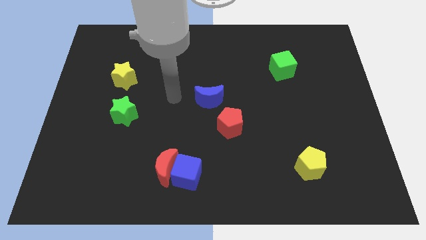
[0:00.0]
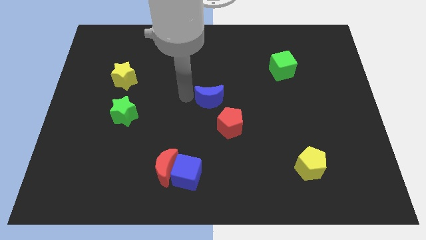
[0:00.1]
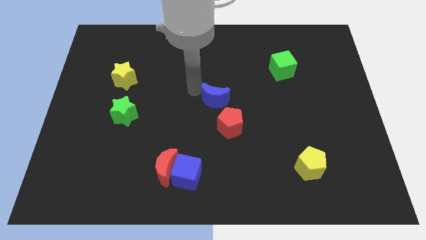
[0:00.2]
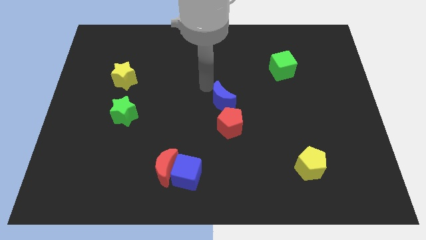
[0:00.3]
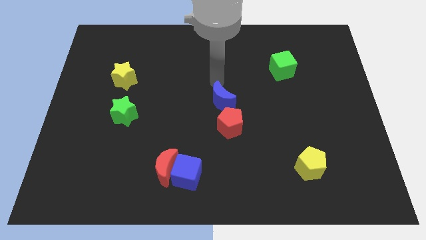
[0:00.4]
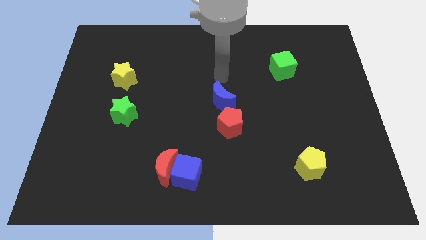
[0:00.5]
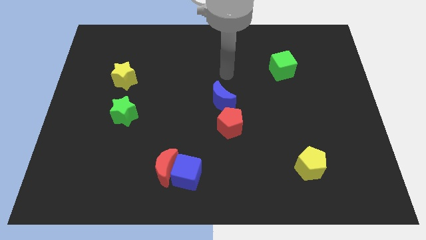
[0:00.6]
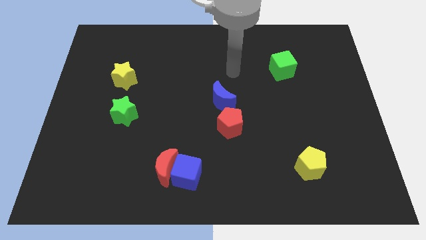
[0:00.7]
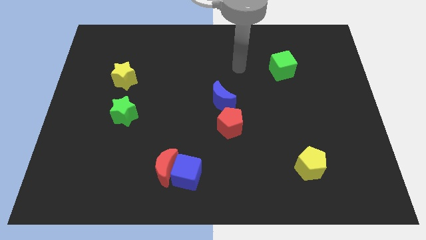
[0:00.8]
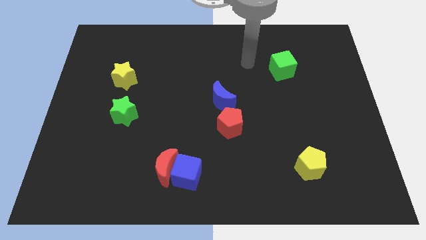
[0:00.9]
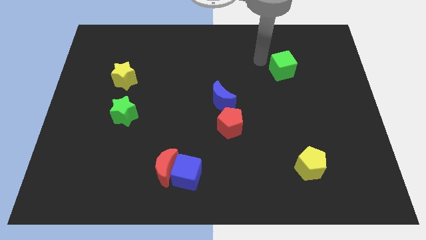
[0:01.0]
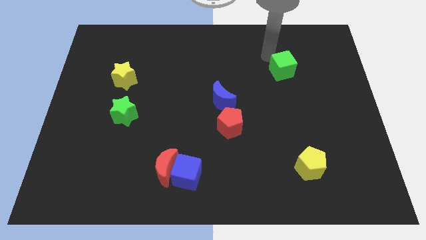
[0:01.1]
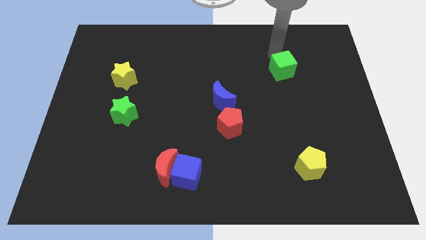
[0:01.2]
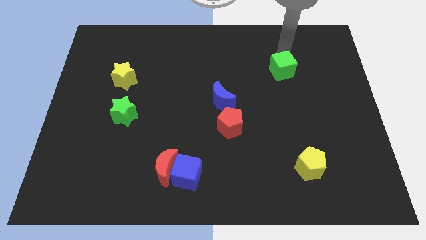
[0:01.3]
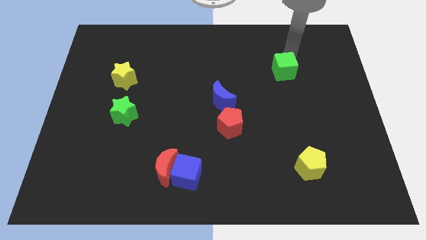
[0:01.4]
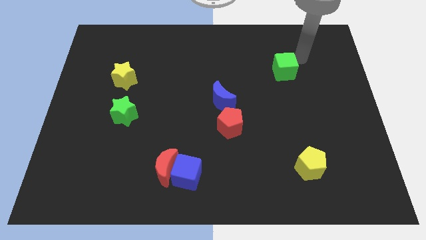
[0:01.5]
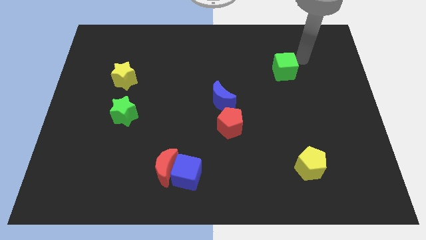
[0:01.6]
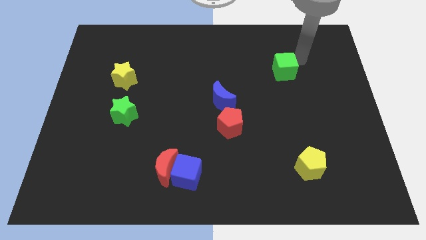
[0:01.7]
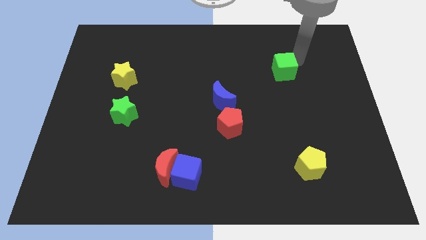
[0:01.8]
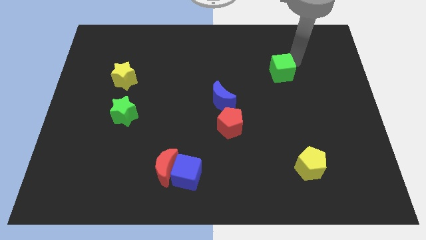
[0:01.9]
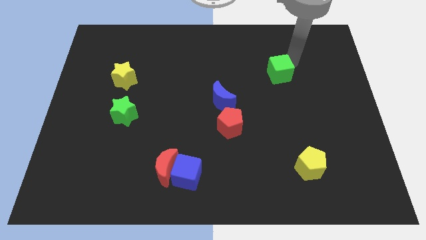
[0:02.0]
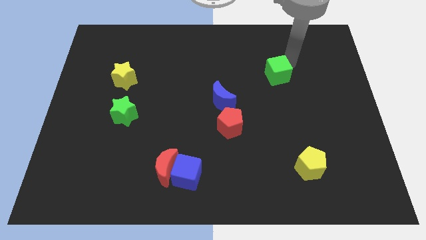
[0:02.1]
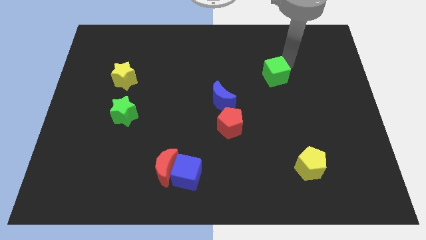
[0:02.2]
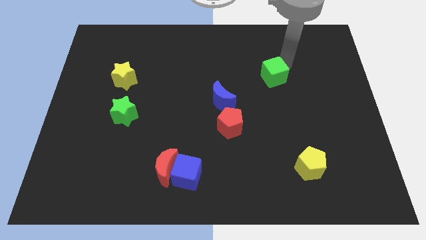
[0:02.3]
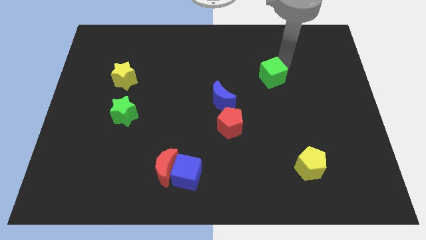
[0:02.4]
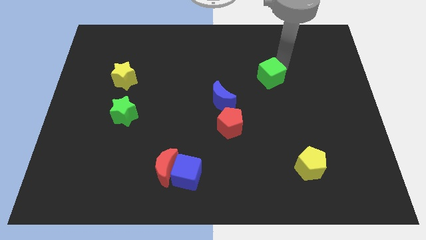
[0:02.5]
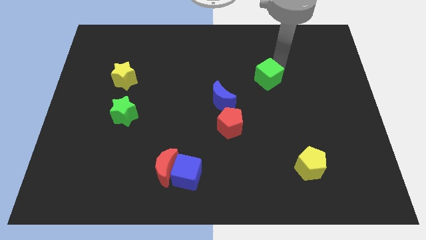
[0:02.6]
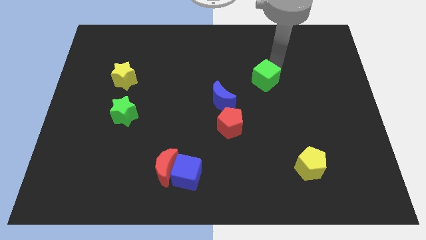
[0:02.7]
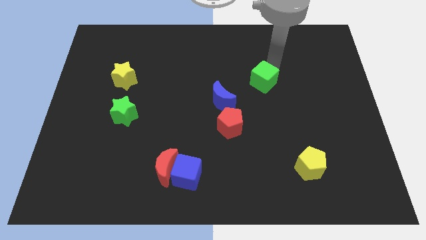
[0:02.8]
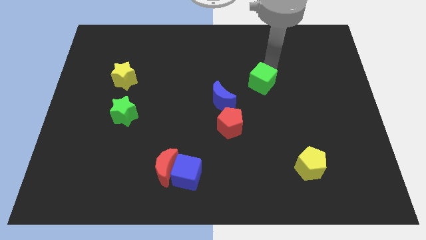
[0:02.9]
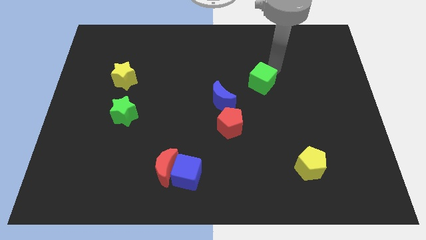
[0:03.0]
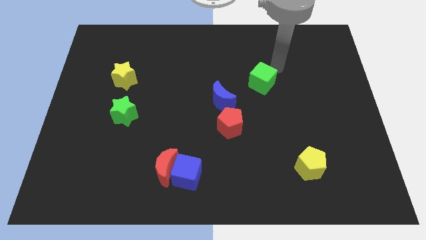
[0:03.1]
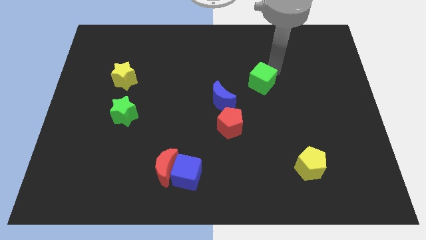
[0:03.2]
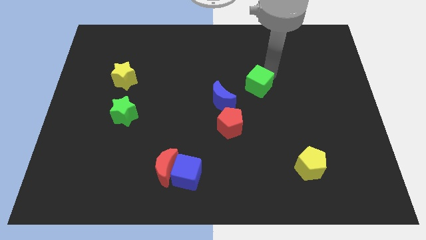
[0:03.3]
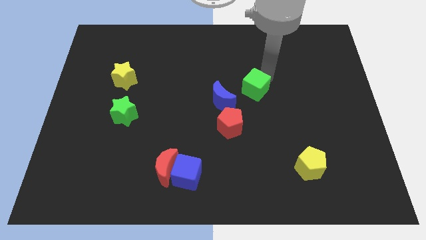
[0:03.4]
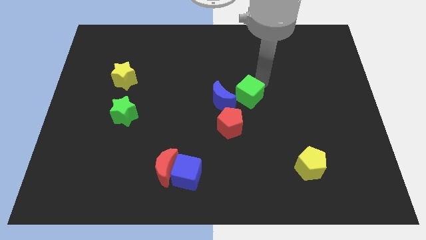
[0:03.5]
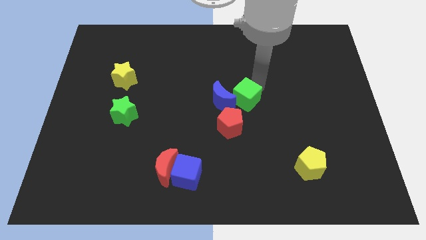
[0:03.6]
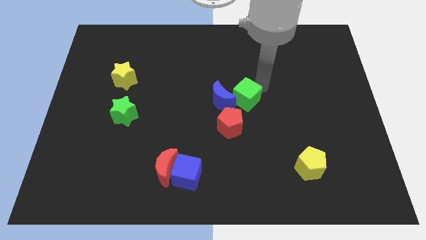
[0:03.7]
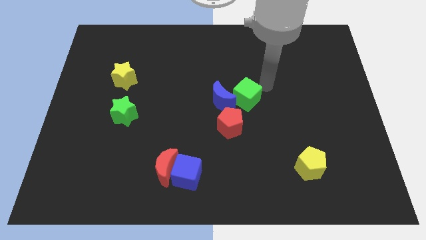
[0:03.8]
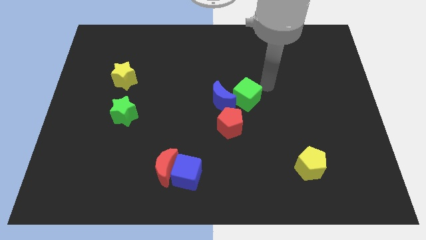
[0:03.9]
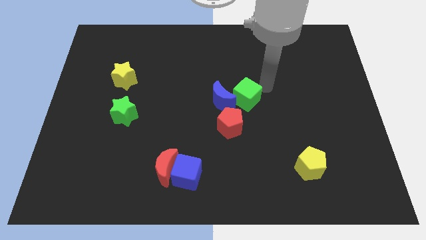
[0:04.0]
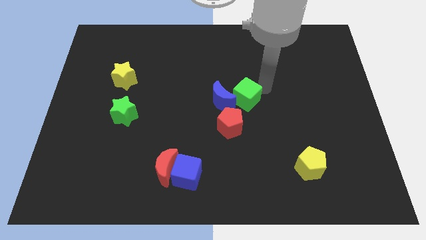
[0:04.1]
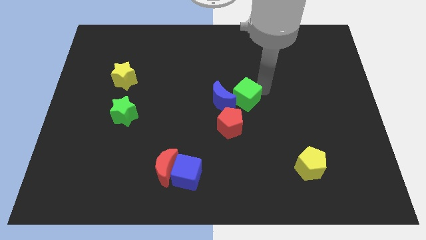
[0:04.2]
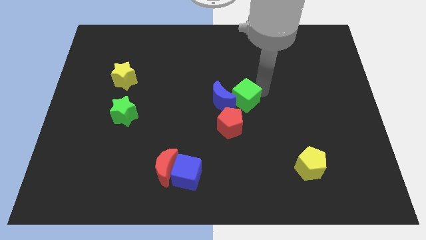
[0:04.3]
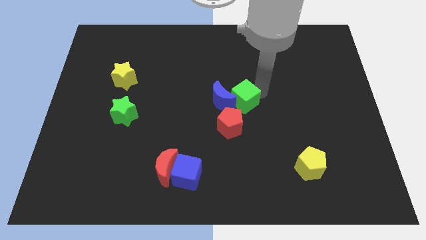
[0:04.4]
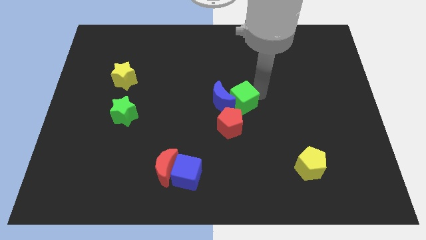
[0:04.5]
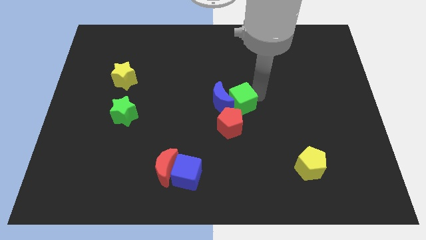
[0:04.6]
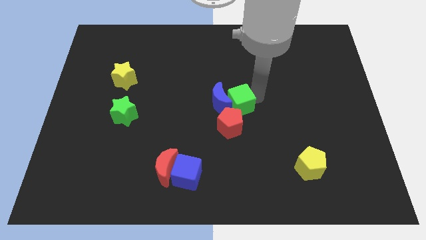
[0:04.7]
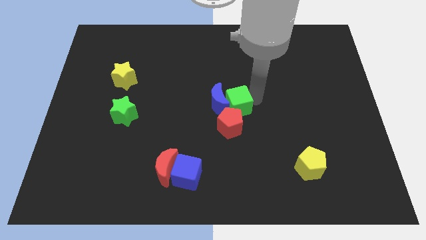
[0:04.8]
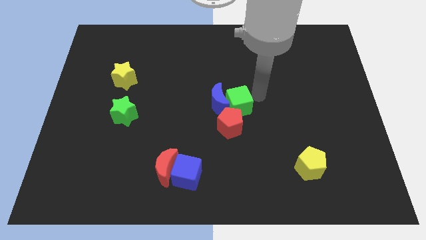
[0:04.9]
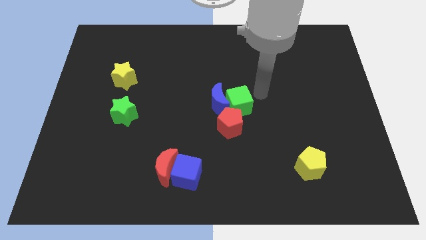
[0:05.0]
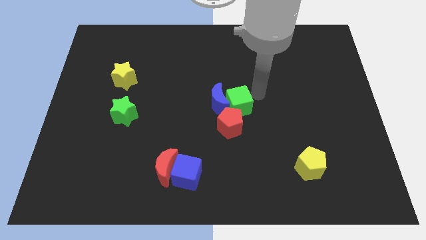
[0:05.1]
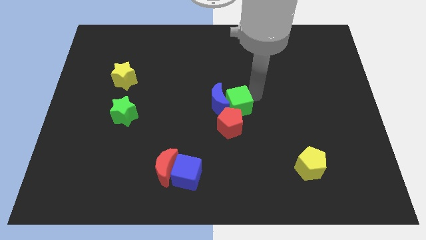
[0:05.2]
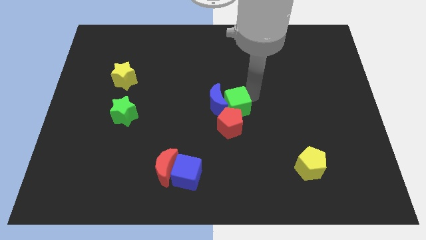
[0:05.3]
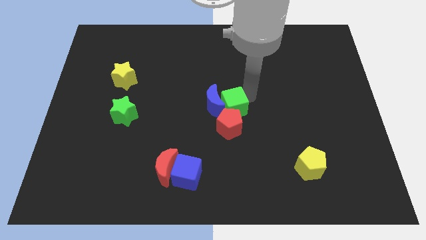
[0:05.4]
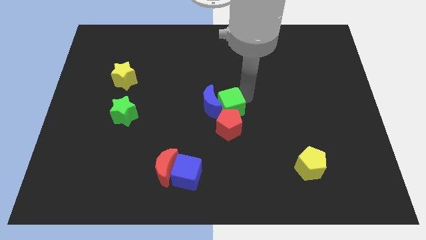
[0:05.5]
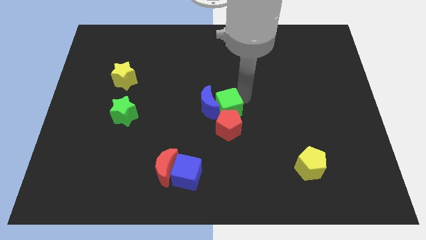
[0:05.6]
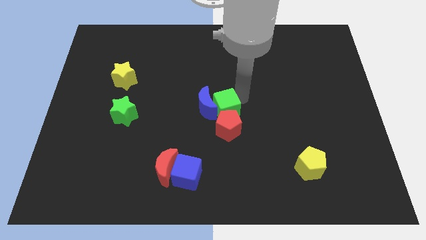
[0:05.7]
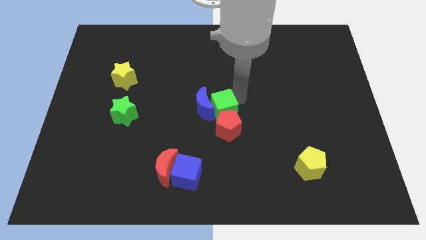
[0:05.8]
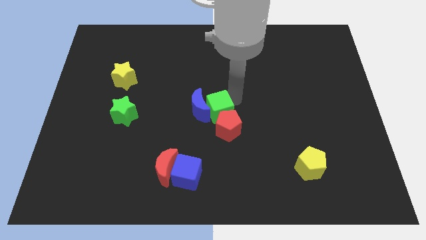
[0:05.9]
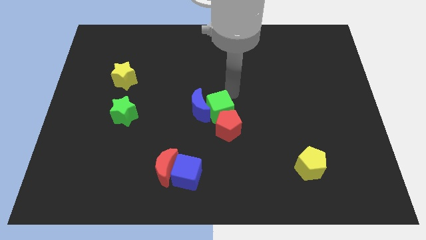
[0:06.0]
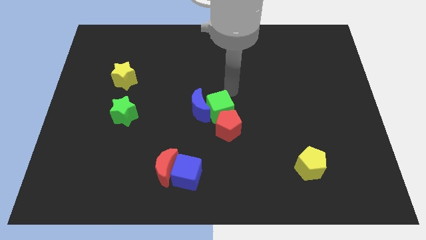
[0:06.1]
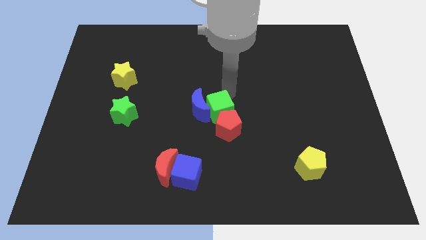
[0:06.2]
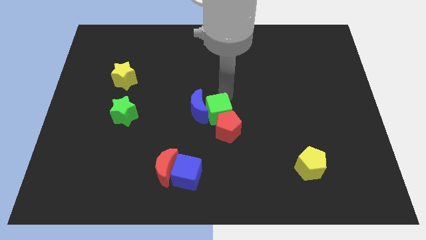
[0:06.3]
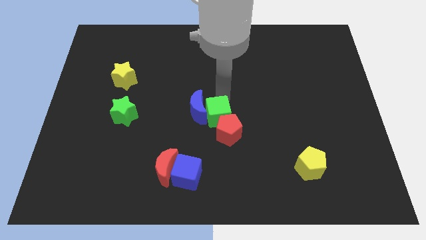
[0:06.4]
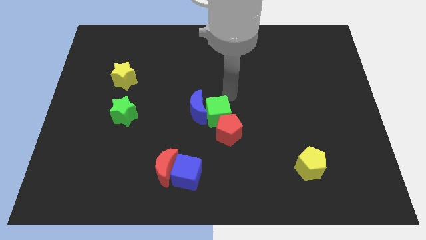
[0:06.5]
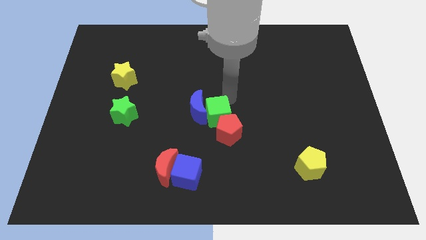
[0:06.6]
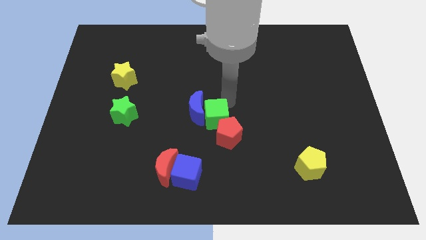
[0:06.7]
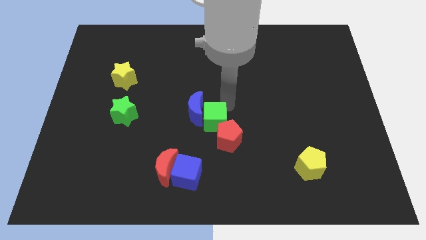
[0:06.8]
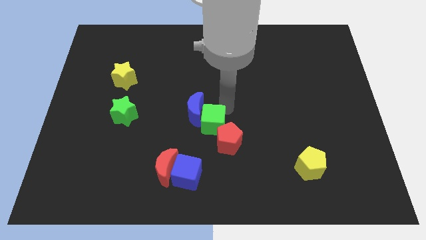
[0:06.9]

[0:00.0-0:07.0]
move the green cube below the blue moon

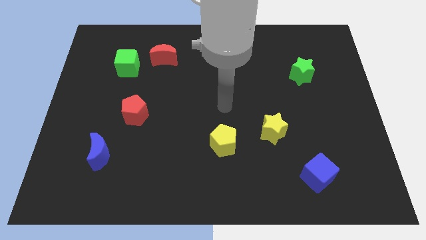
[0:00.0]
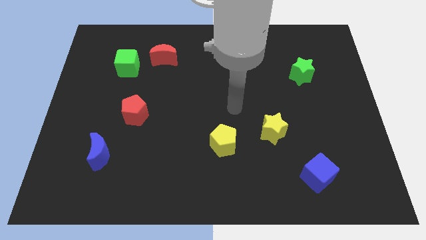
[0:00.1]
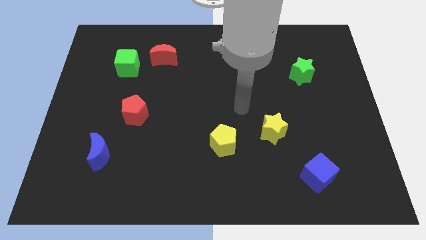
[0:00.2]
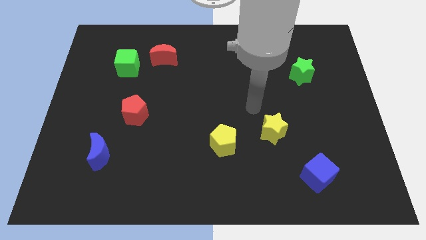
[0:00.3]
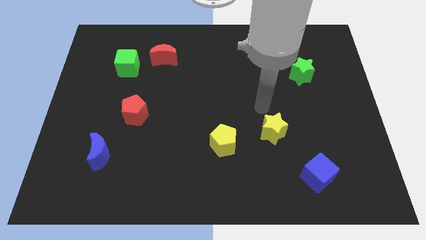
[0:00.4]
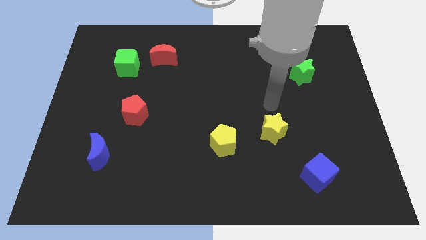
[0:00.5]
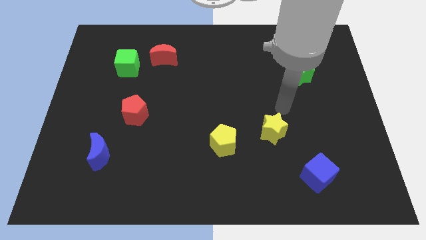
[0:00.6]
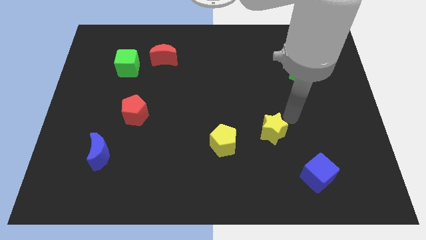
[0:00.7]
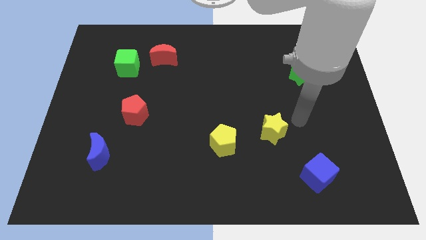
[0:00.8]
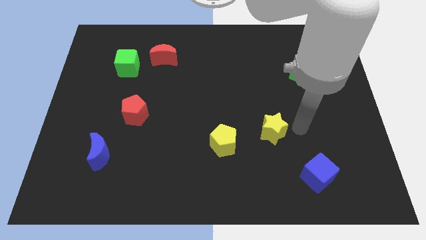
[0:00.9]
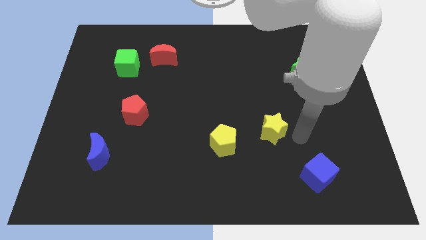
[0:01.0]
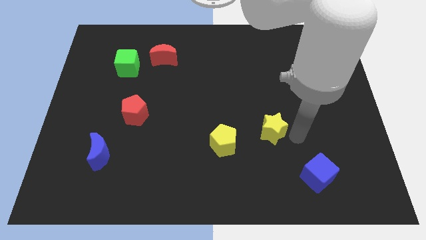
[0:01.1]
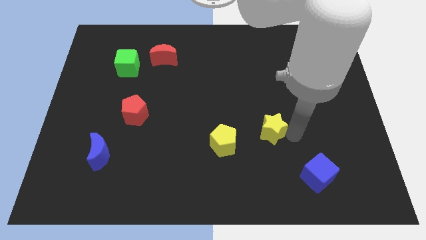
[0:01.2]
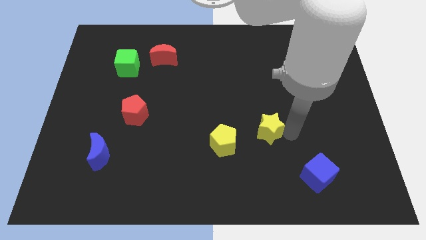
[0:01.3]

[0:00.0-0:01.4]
put the yellow star to the top right side of the yellow pentagon
